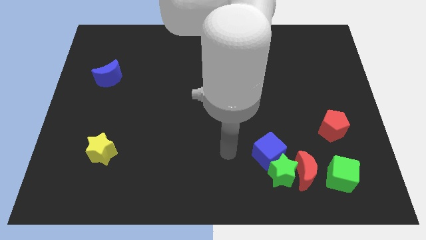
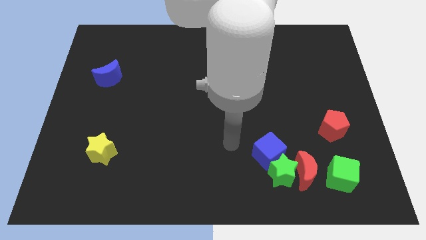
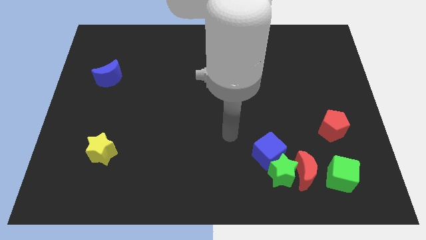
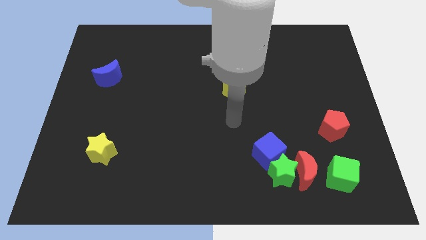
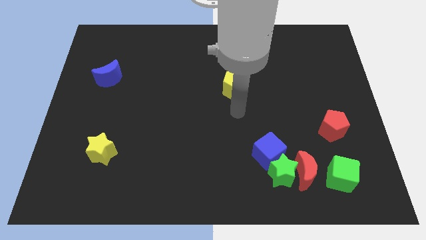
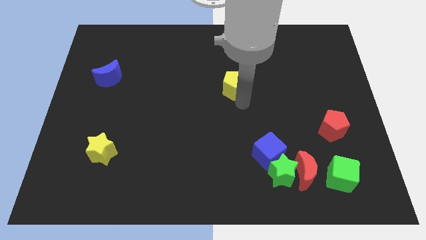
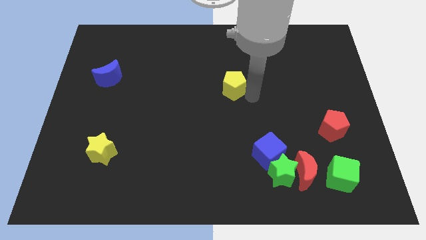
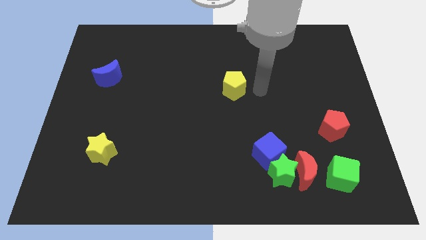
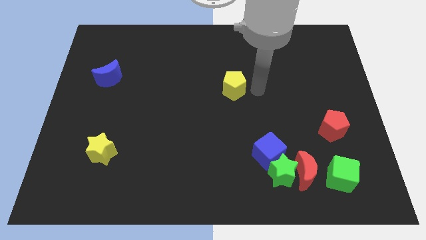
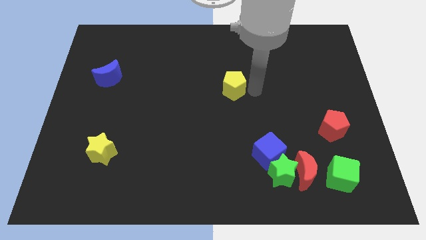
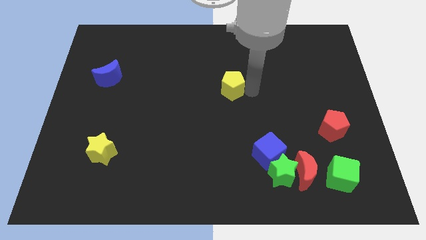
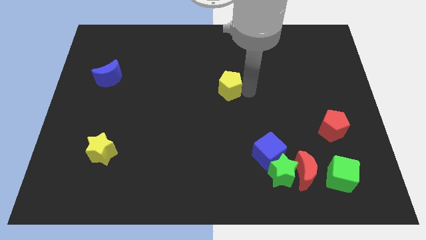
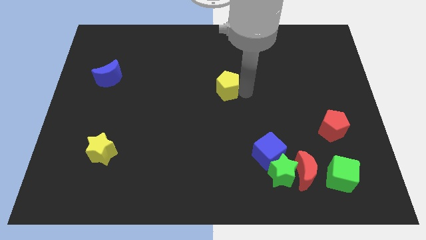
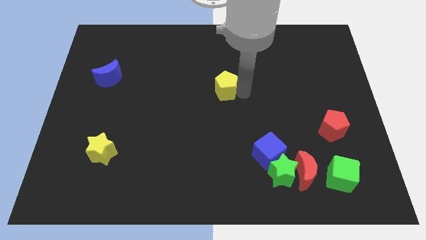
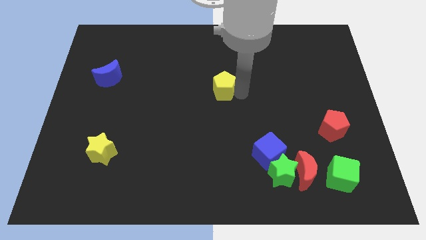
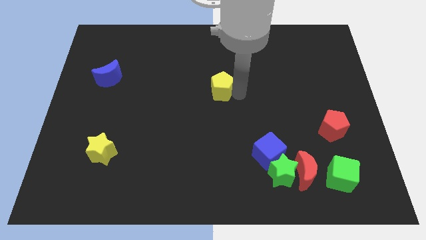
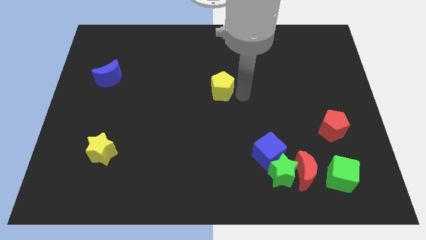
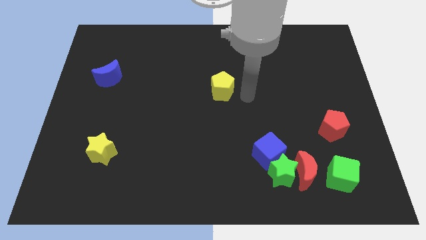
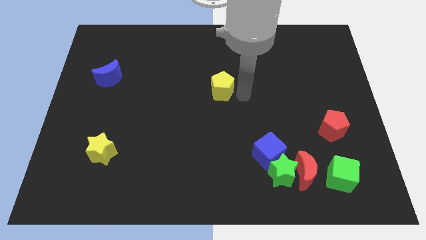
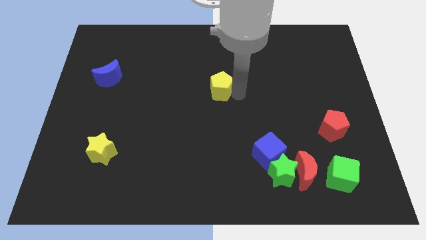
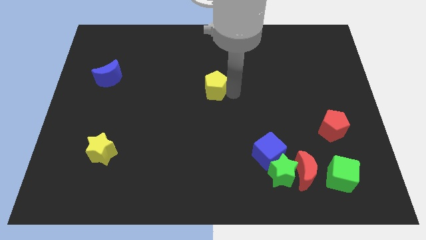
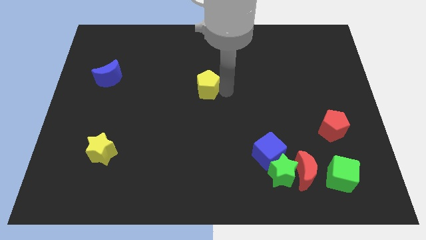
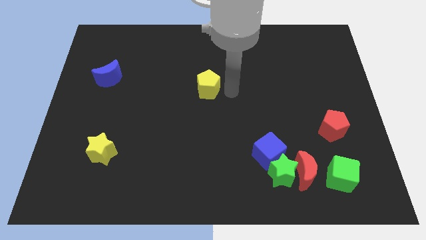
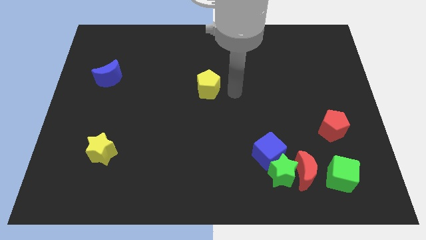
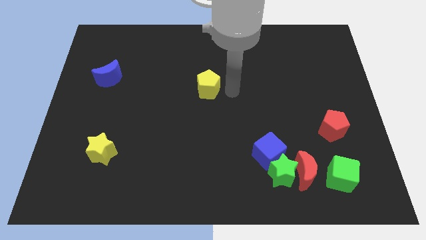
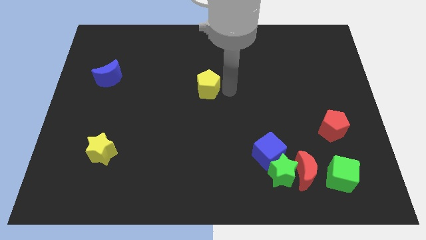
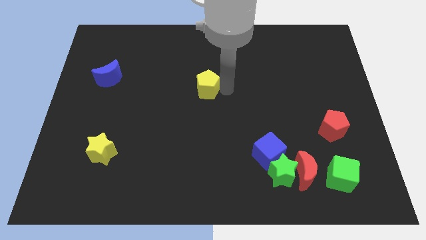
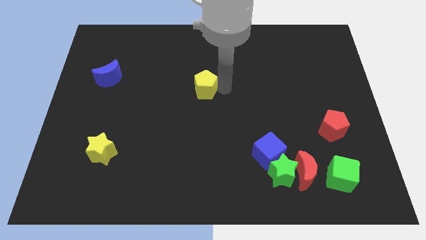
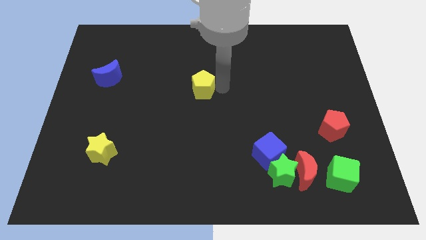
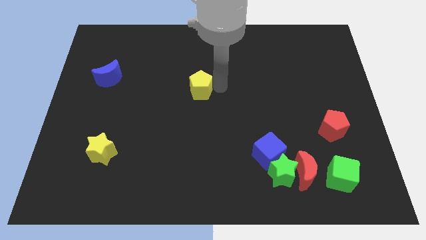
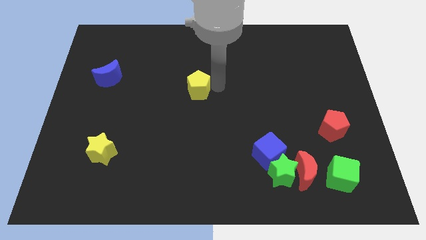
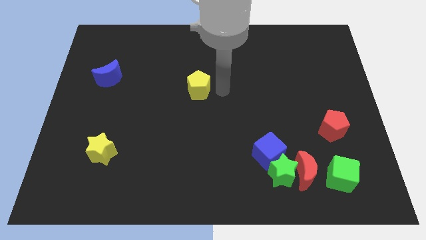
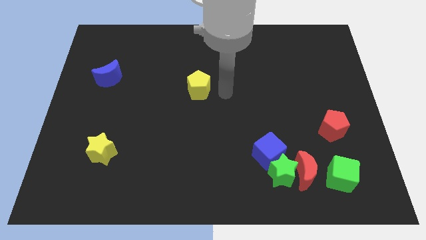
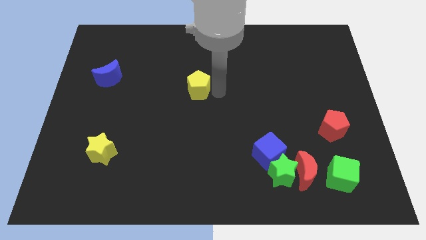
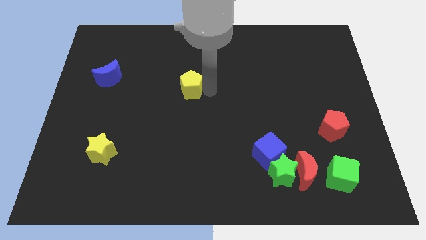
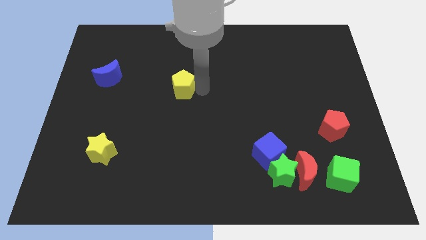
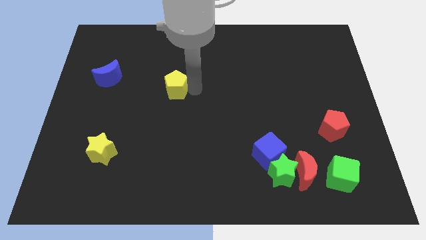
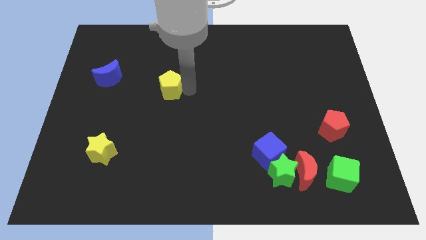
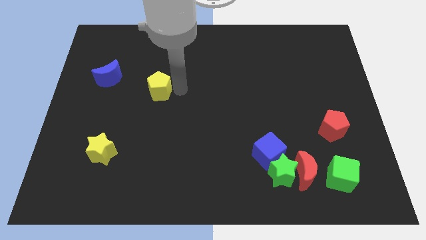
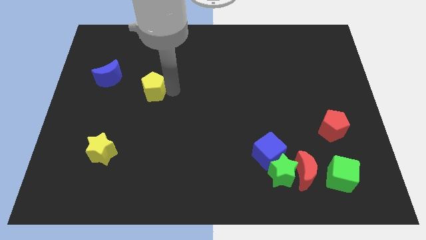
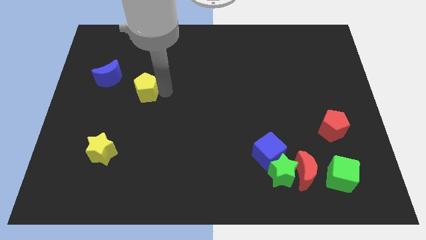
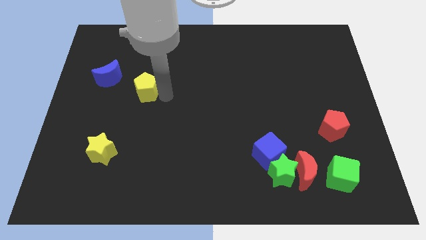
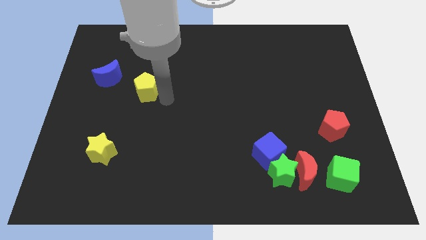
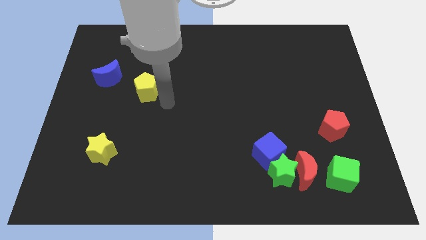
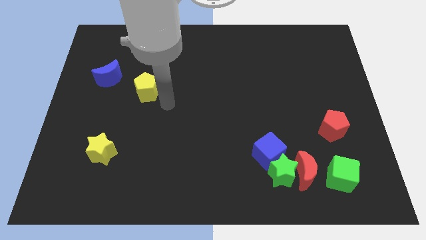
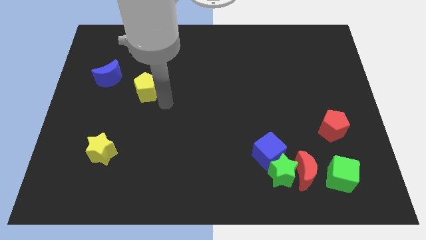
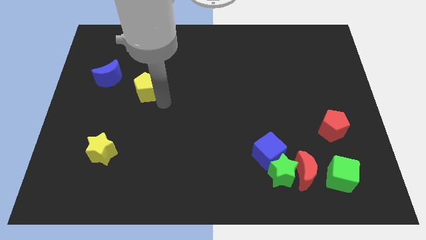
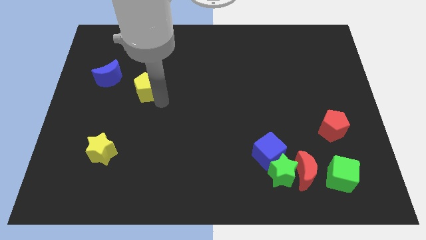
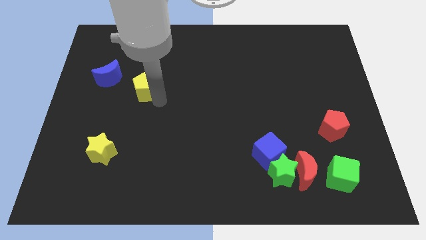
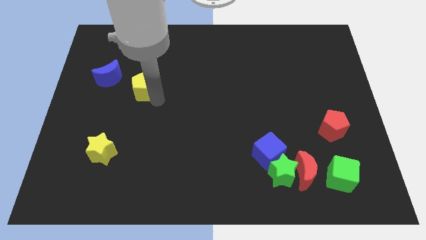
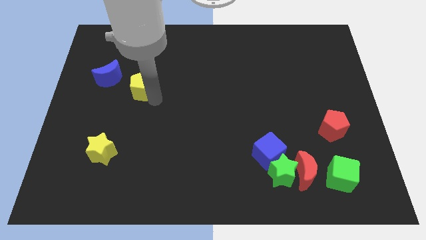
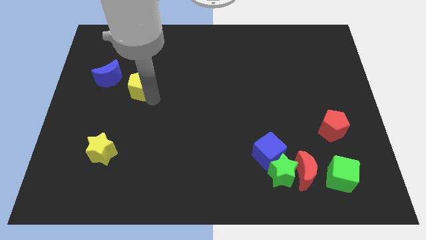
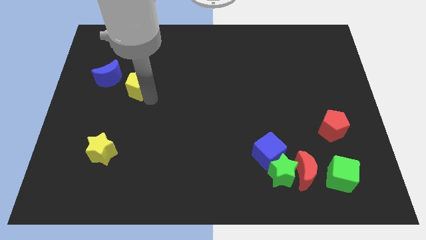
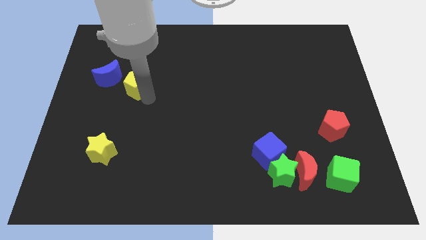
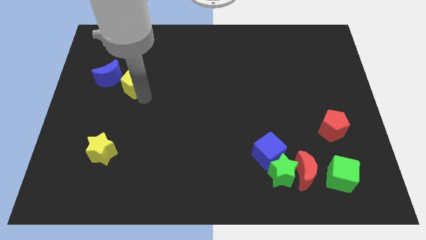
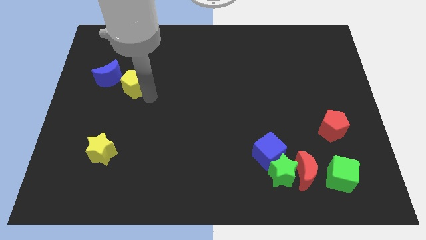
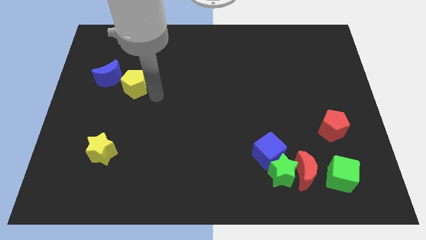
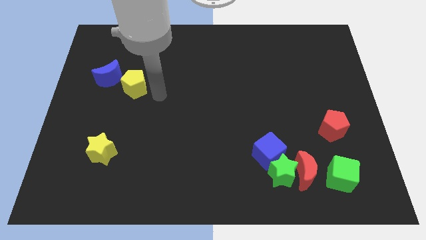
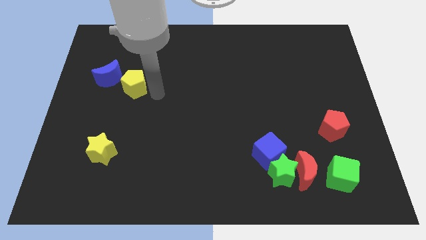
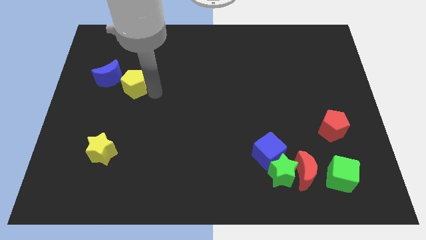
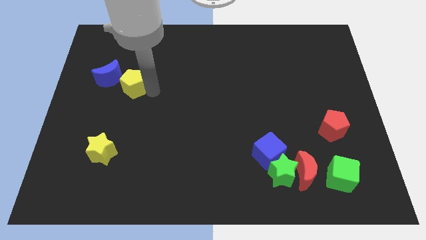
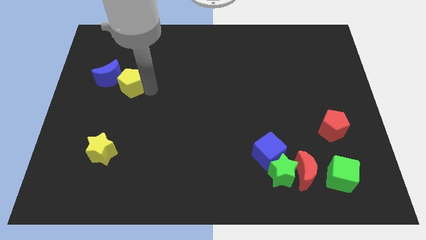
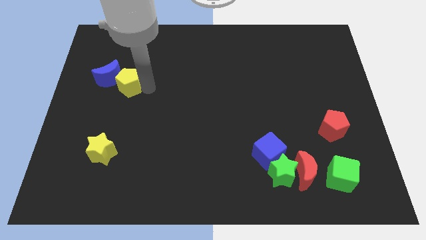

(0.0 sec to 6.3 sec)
push the yellow pentagon close to the blue moon
